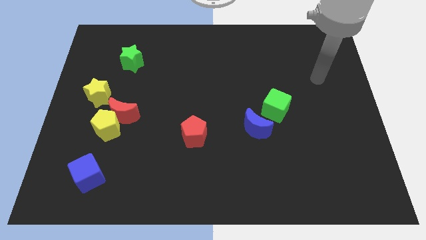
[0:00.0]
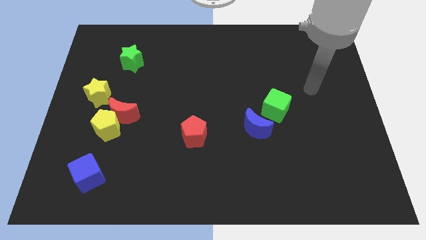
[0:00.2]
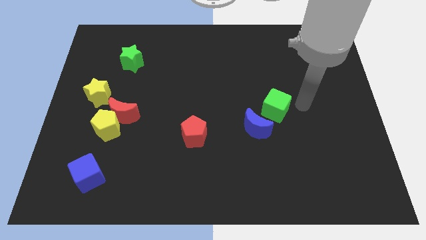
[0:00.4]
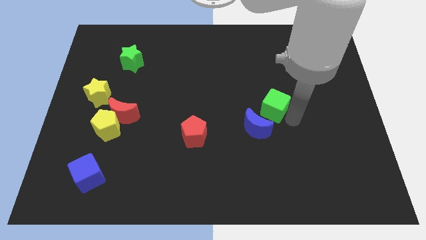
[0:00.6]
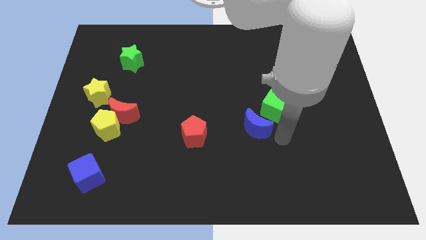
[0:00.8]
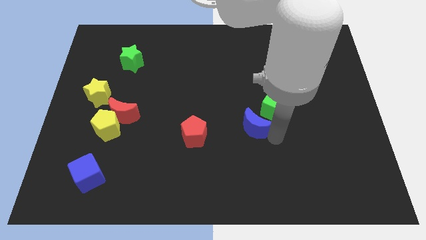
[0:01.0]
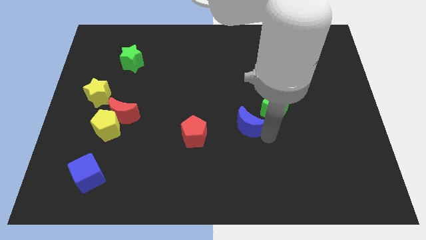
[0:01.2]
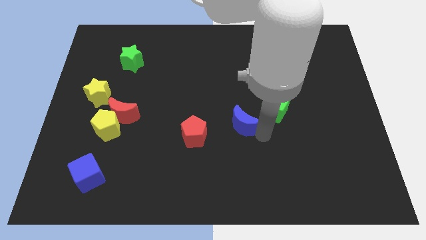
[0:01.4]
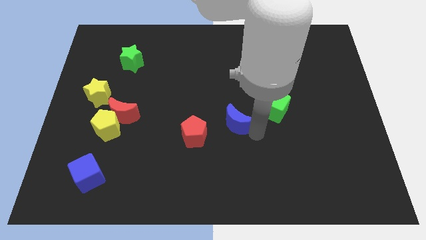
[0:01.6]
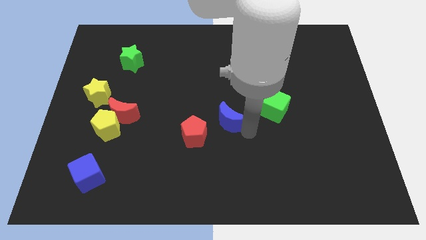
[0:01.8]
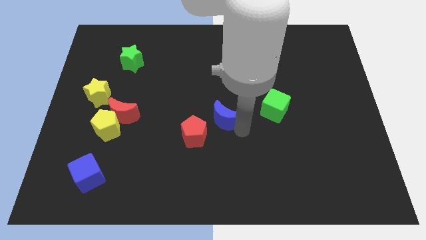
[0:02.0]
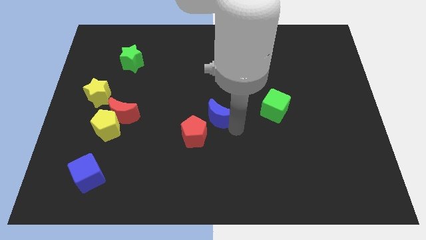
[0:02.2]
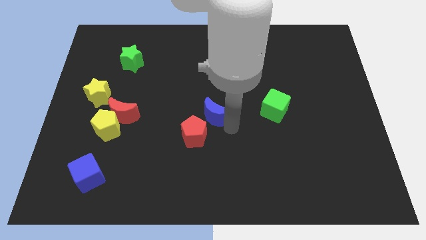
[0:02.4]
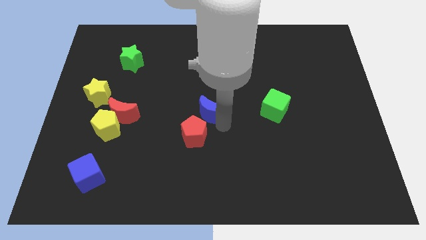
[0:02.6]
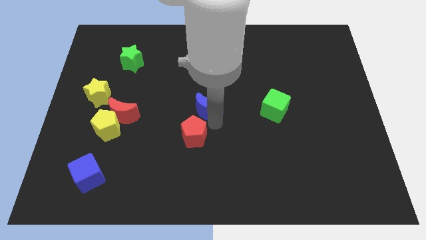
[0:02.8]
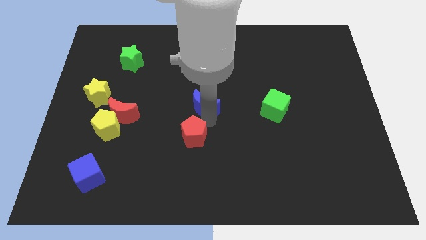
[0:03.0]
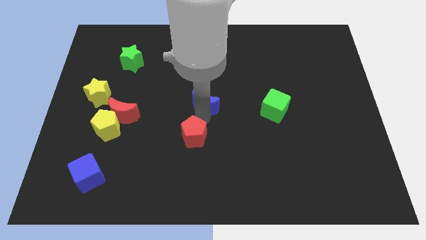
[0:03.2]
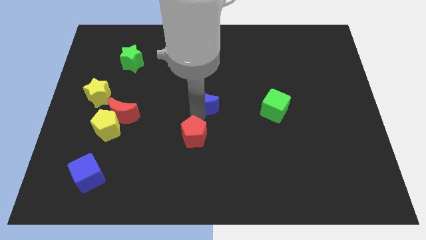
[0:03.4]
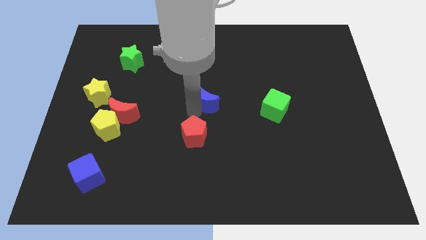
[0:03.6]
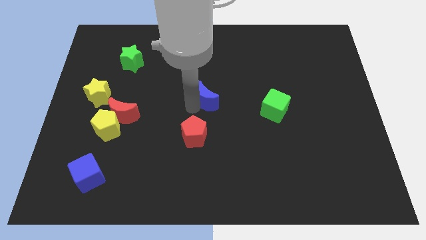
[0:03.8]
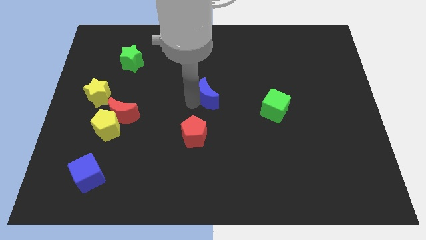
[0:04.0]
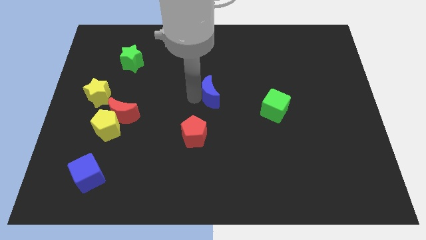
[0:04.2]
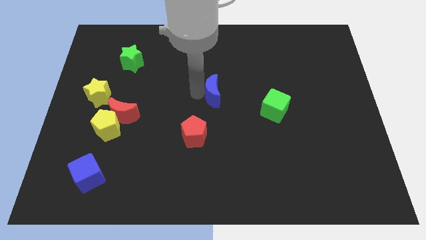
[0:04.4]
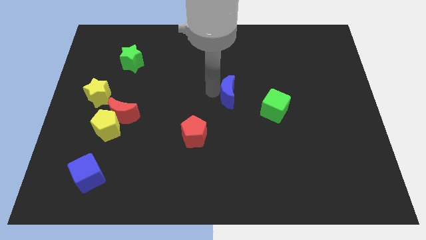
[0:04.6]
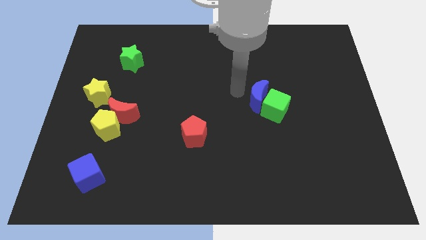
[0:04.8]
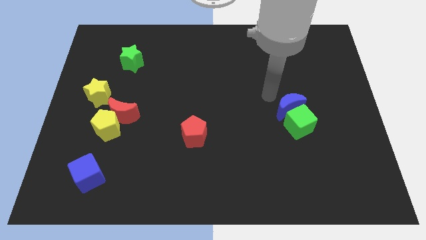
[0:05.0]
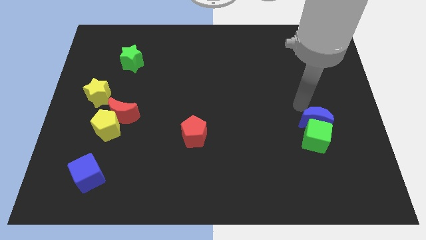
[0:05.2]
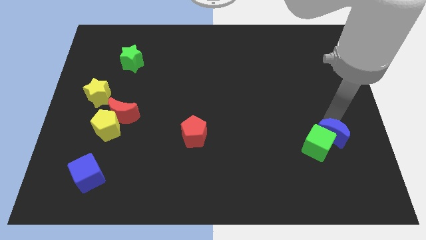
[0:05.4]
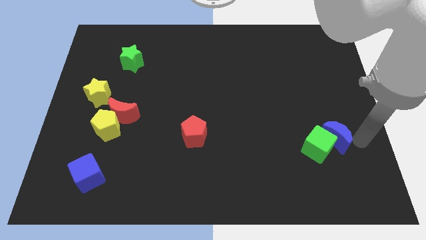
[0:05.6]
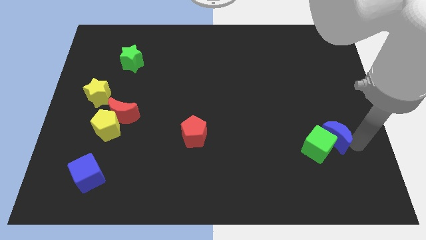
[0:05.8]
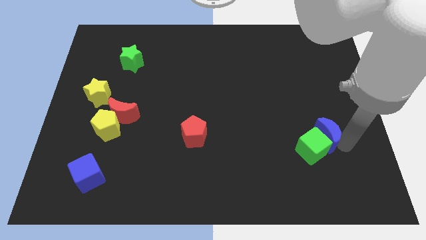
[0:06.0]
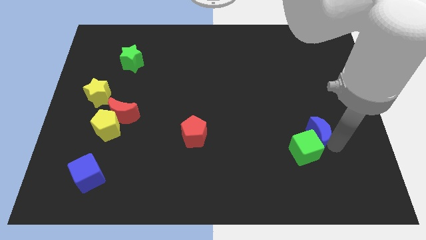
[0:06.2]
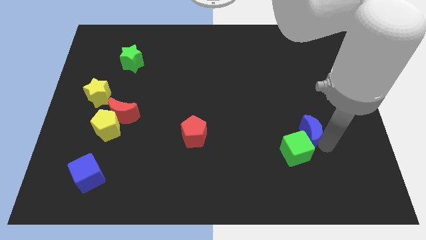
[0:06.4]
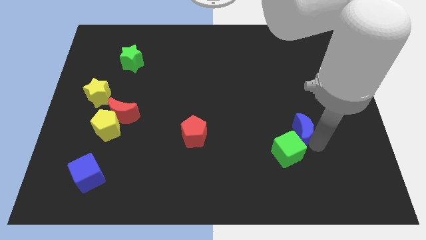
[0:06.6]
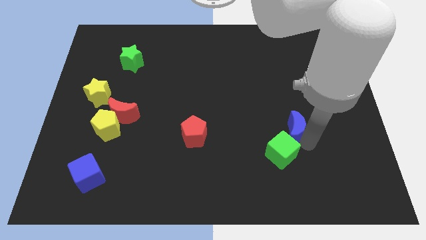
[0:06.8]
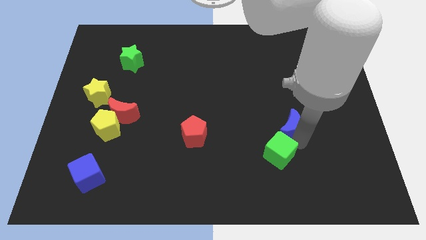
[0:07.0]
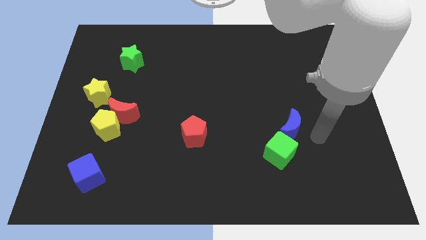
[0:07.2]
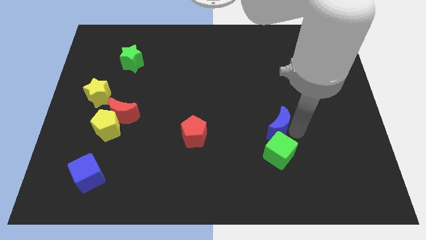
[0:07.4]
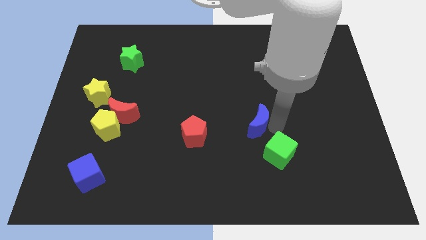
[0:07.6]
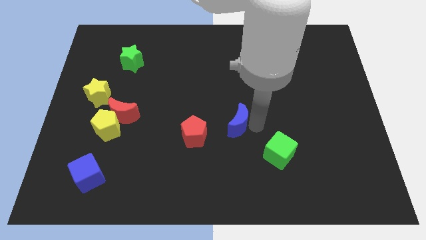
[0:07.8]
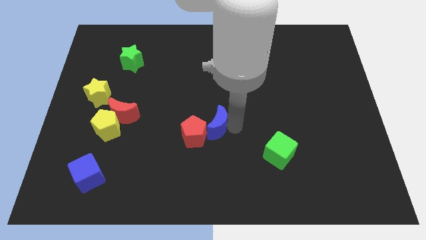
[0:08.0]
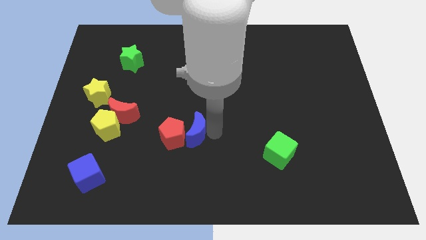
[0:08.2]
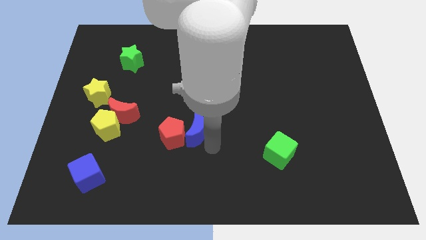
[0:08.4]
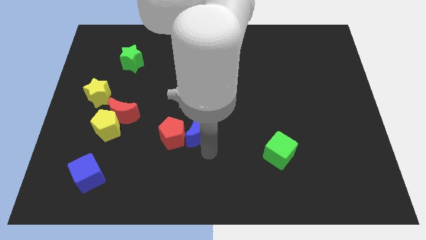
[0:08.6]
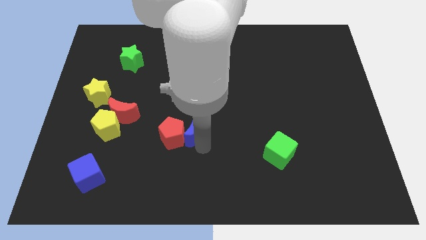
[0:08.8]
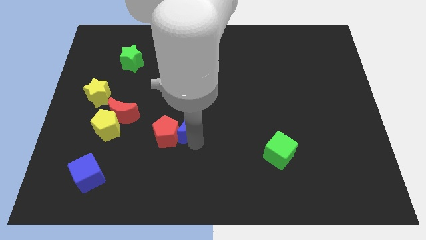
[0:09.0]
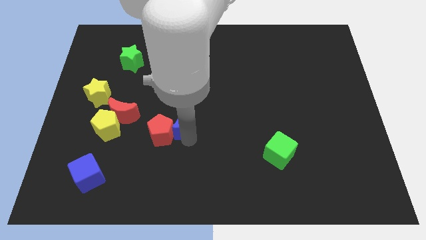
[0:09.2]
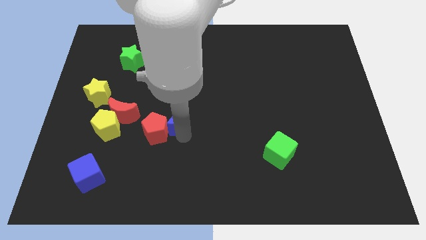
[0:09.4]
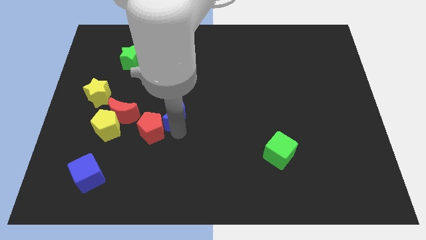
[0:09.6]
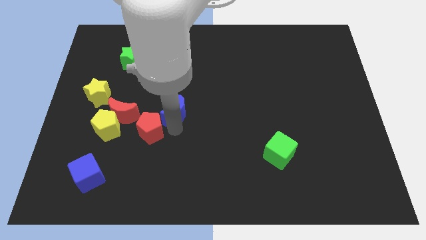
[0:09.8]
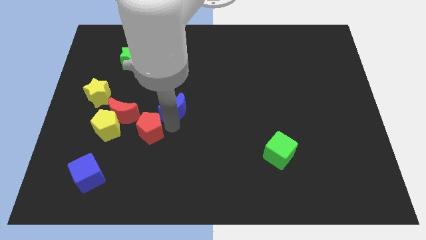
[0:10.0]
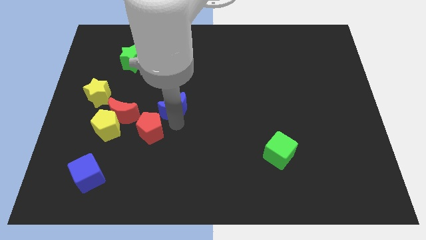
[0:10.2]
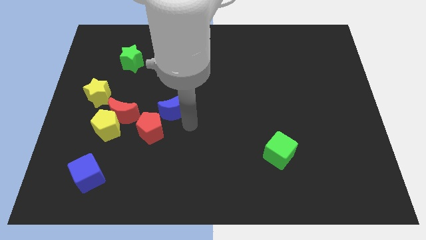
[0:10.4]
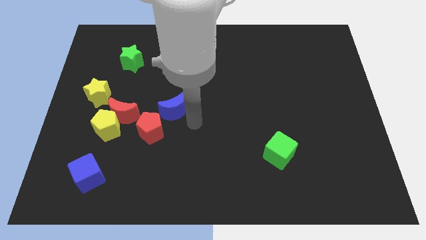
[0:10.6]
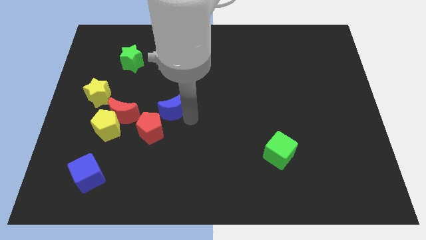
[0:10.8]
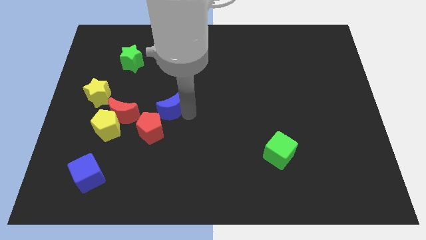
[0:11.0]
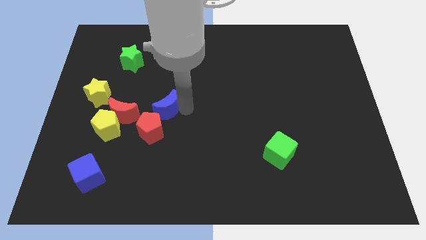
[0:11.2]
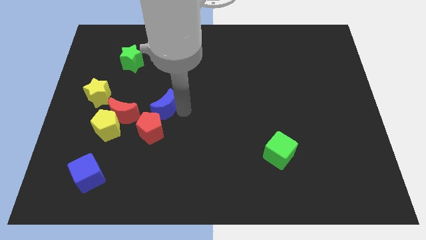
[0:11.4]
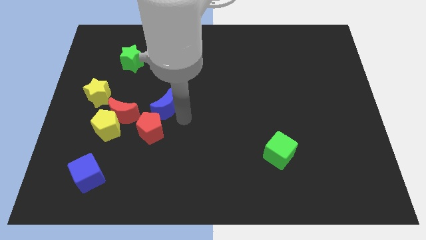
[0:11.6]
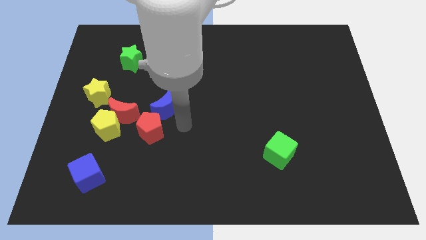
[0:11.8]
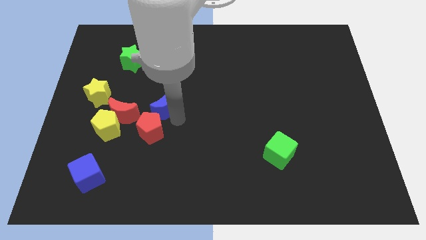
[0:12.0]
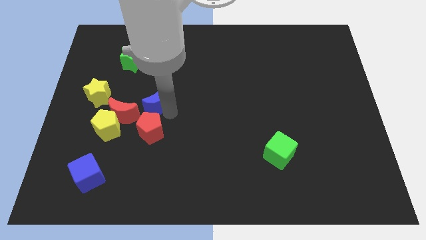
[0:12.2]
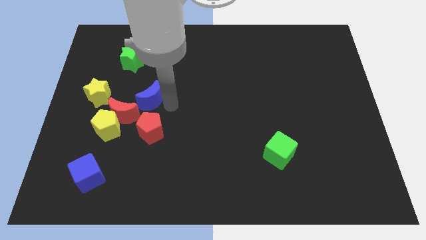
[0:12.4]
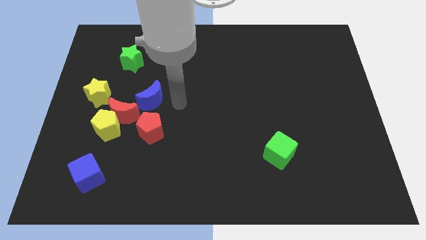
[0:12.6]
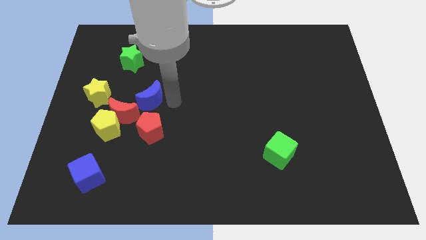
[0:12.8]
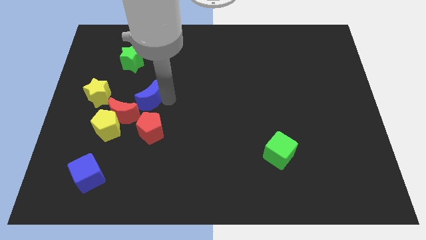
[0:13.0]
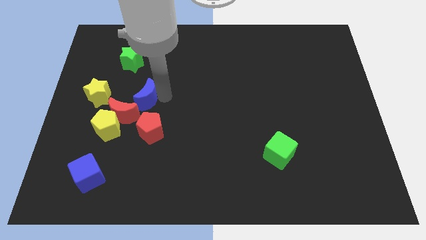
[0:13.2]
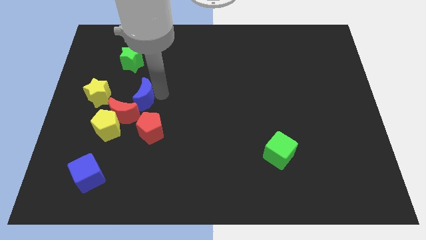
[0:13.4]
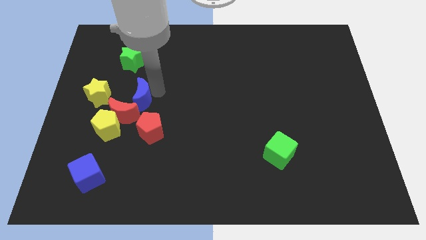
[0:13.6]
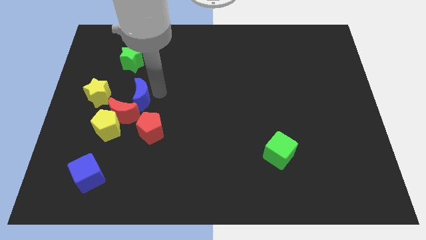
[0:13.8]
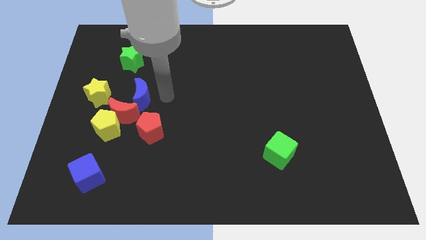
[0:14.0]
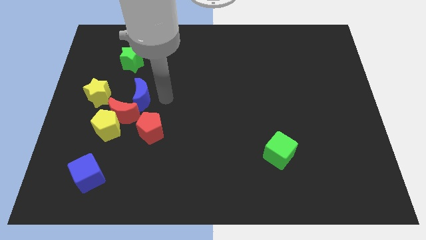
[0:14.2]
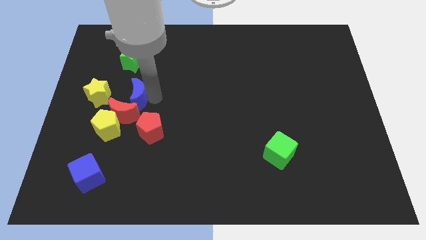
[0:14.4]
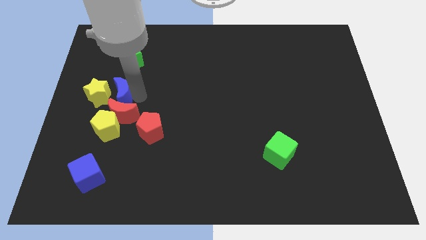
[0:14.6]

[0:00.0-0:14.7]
move the blue moon next to the yellow star
